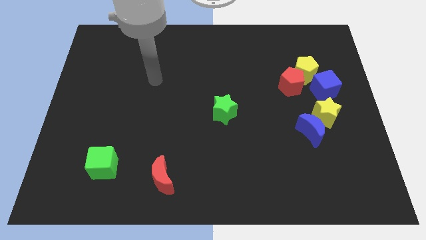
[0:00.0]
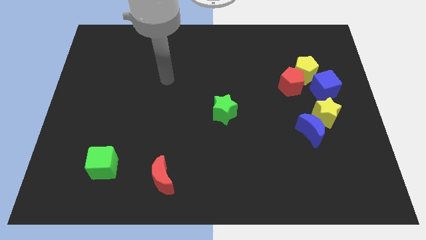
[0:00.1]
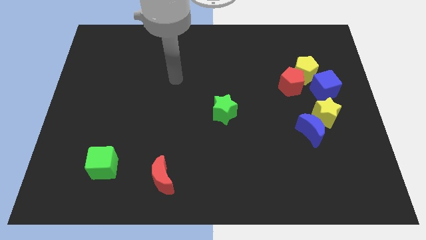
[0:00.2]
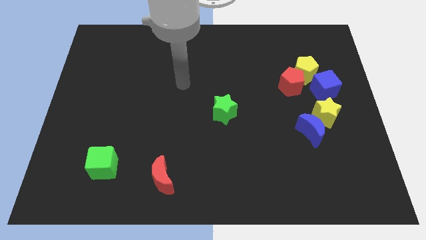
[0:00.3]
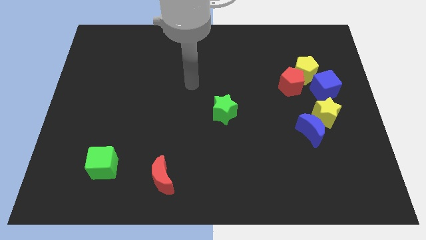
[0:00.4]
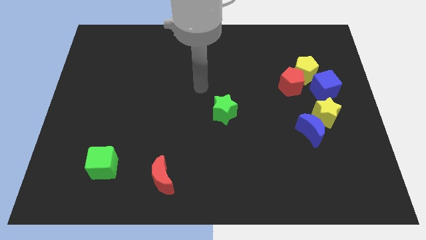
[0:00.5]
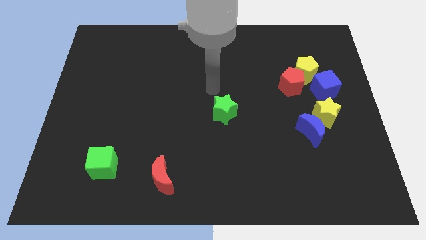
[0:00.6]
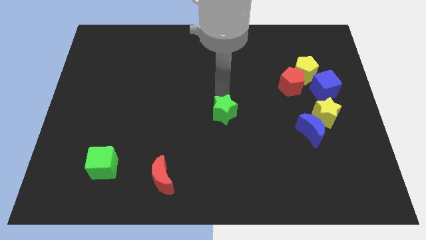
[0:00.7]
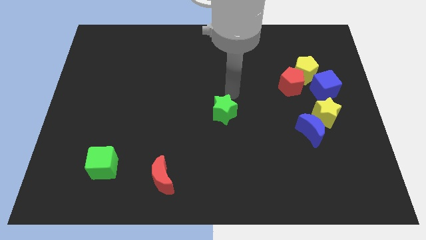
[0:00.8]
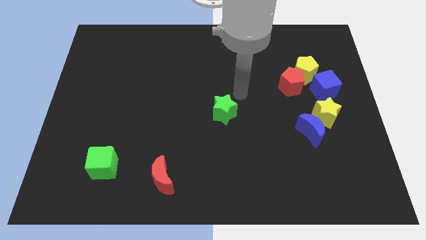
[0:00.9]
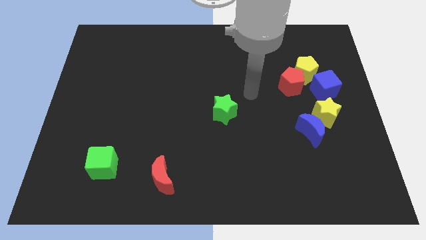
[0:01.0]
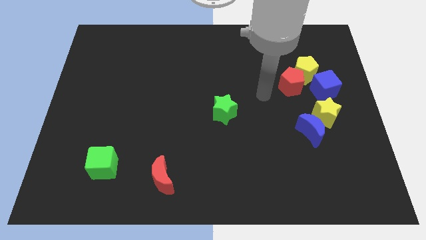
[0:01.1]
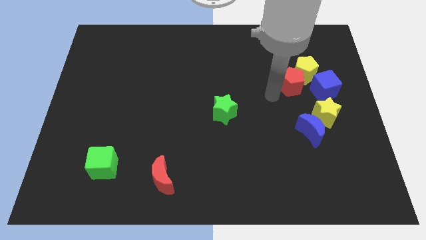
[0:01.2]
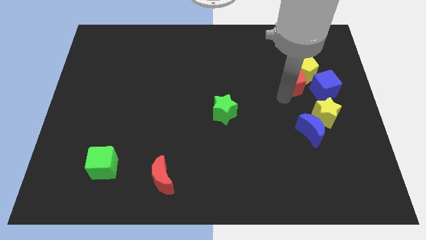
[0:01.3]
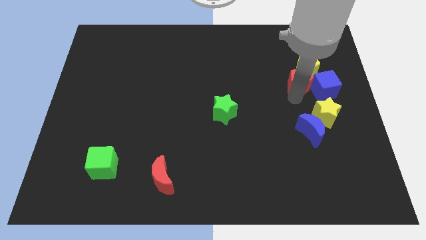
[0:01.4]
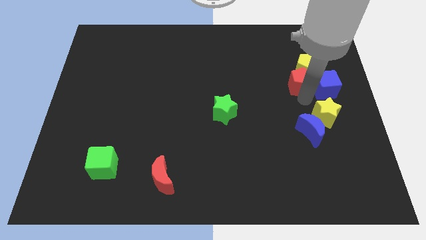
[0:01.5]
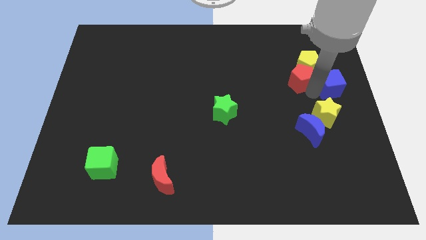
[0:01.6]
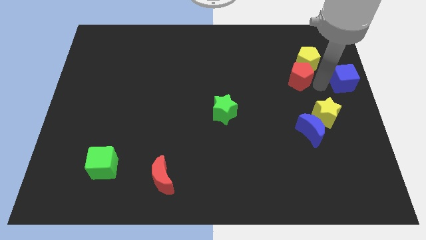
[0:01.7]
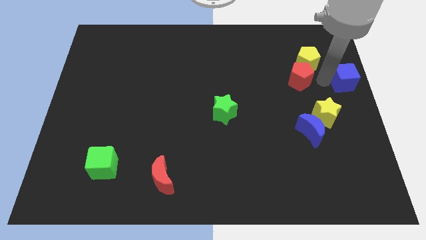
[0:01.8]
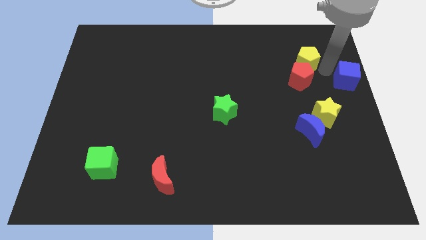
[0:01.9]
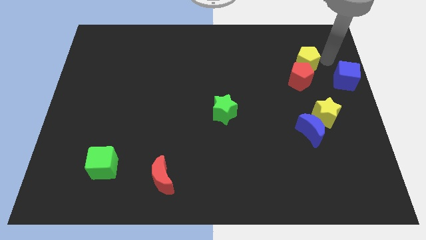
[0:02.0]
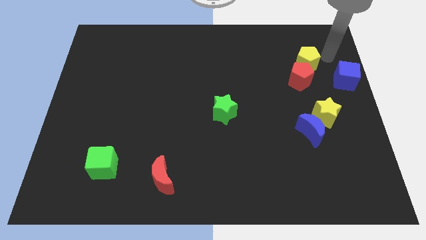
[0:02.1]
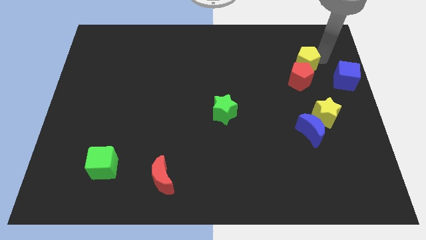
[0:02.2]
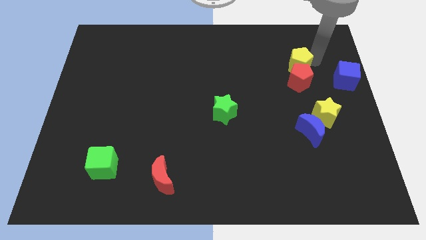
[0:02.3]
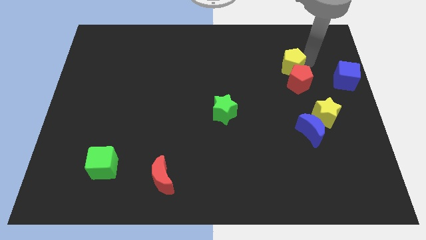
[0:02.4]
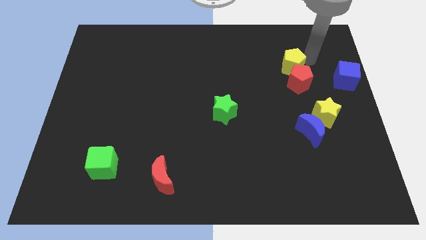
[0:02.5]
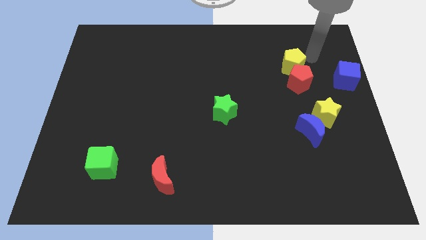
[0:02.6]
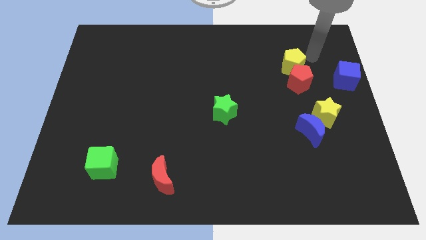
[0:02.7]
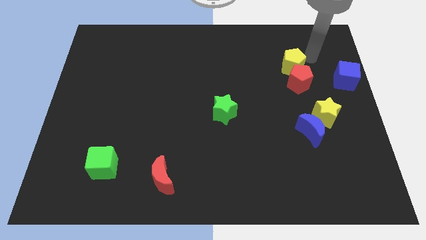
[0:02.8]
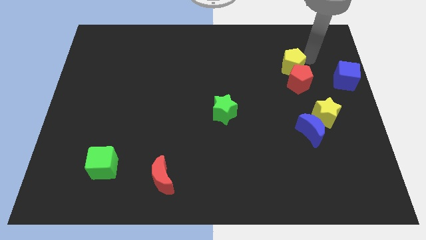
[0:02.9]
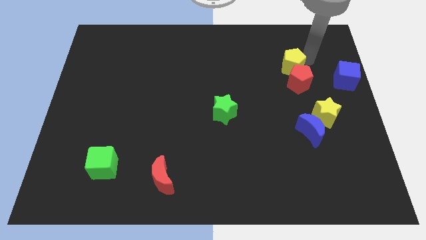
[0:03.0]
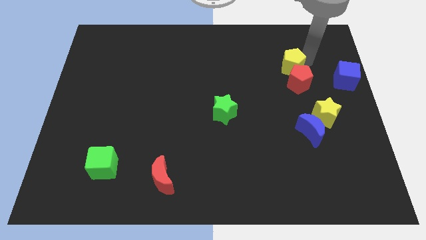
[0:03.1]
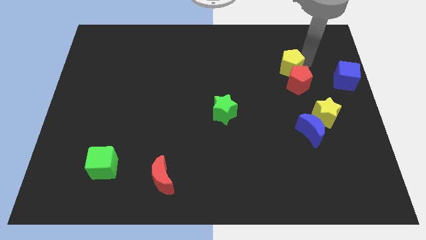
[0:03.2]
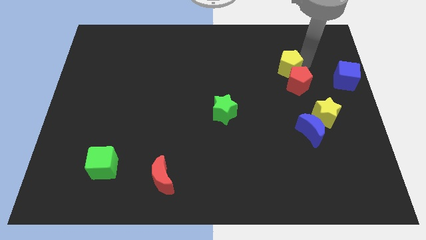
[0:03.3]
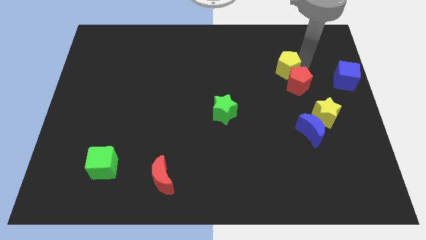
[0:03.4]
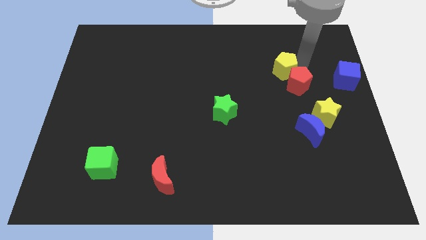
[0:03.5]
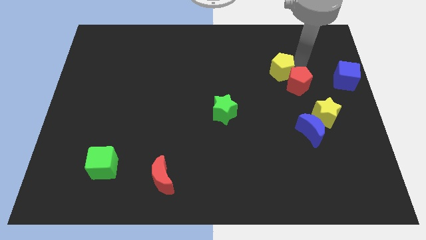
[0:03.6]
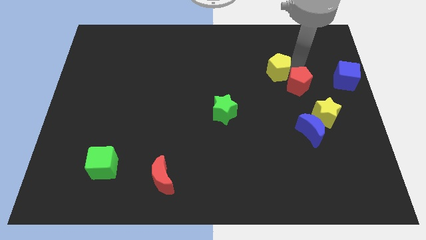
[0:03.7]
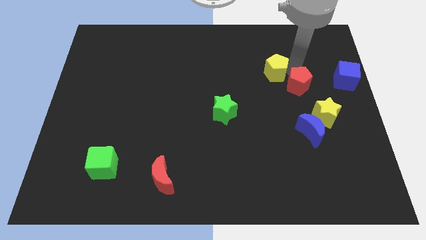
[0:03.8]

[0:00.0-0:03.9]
push the yellow pentagon left slightly

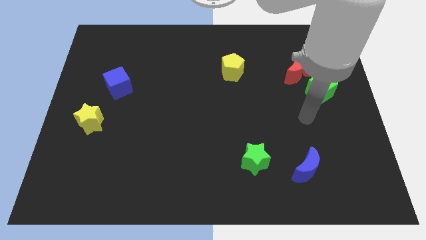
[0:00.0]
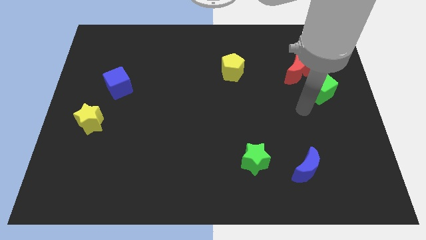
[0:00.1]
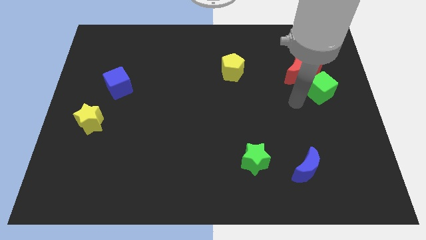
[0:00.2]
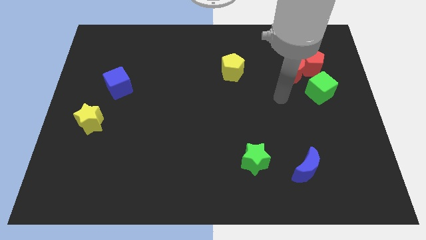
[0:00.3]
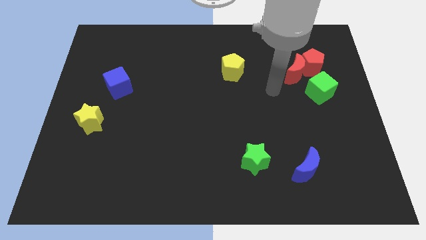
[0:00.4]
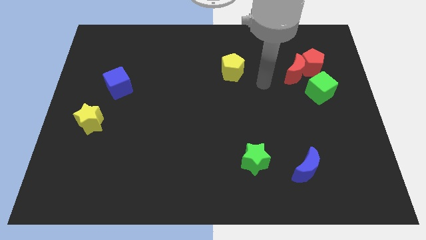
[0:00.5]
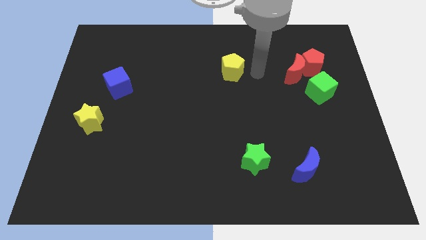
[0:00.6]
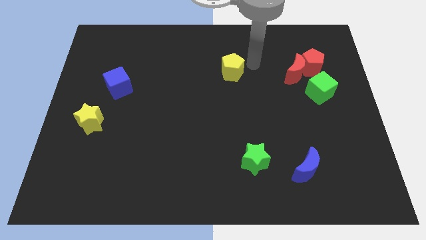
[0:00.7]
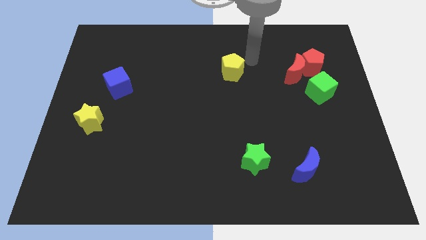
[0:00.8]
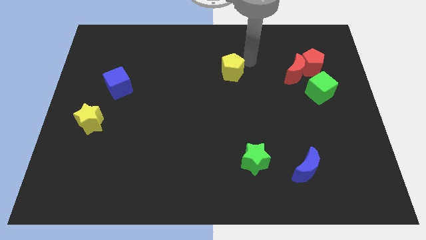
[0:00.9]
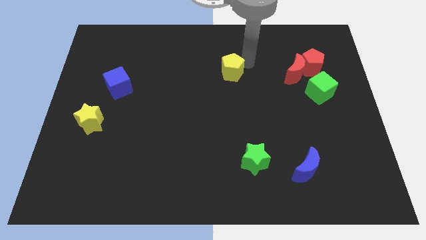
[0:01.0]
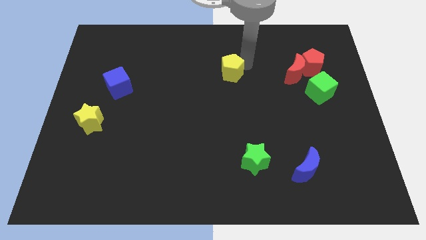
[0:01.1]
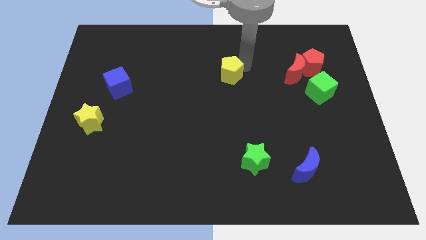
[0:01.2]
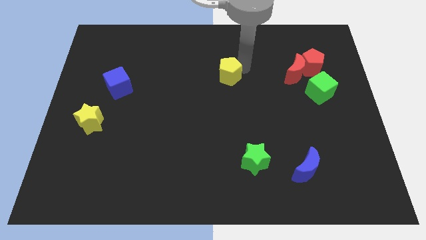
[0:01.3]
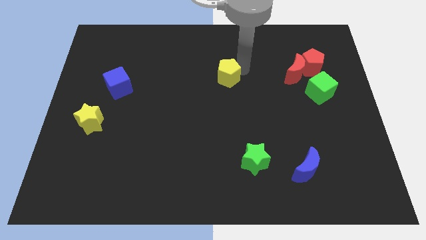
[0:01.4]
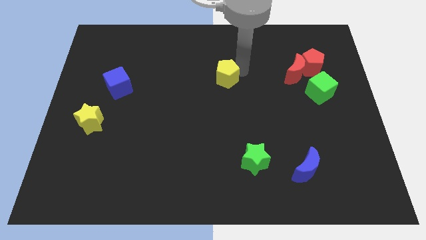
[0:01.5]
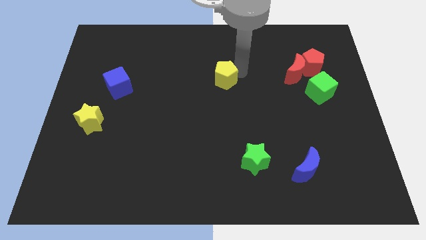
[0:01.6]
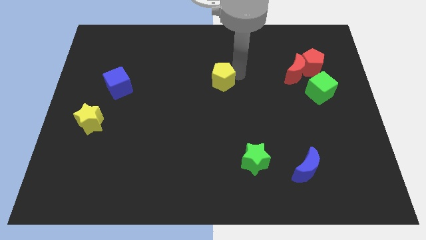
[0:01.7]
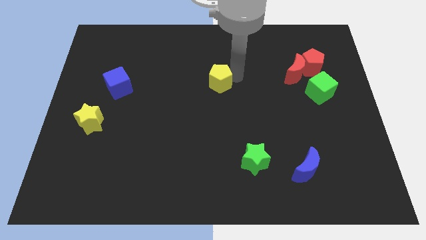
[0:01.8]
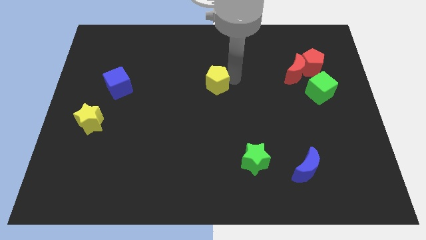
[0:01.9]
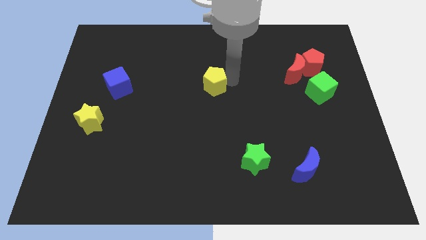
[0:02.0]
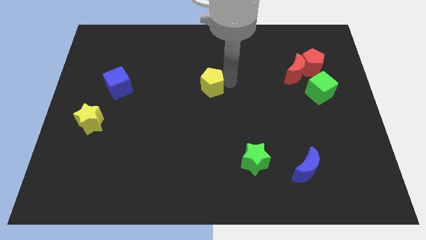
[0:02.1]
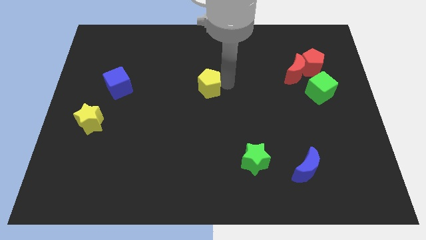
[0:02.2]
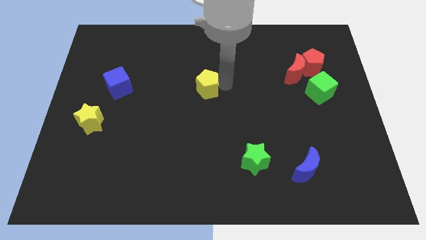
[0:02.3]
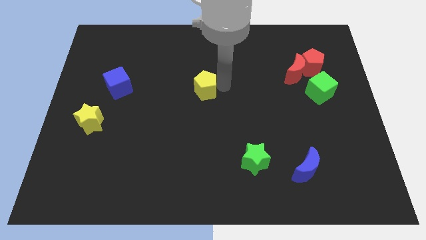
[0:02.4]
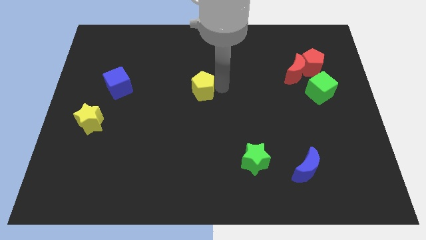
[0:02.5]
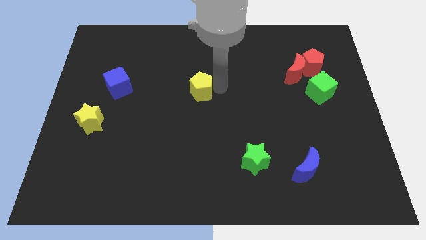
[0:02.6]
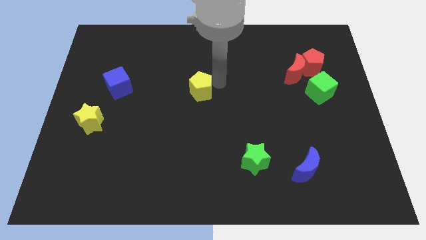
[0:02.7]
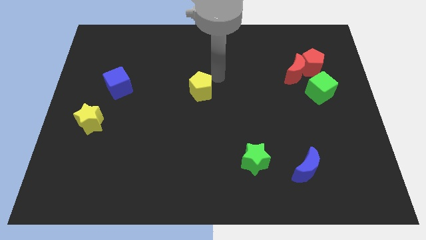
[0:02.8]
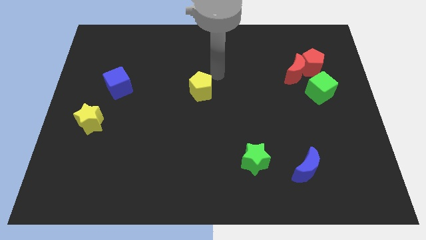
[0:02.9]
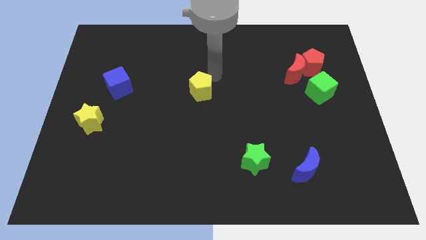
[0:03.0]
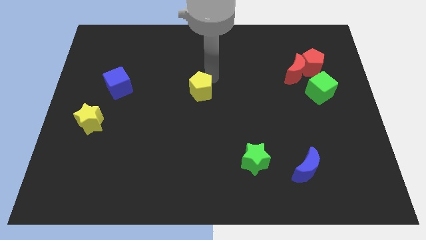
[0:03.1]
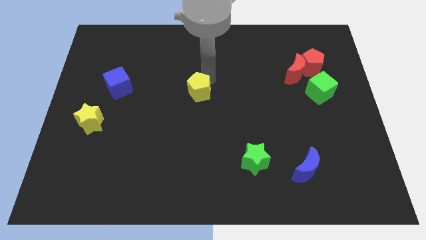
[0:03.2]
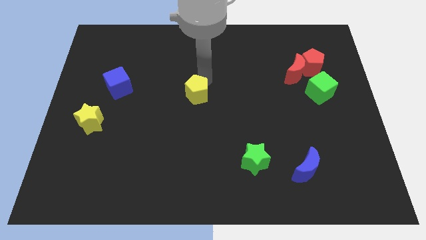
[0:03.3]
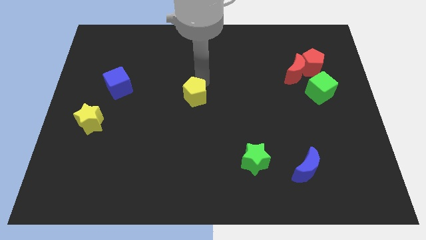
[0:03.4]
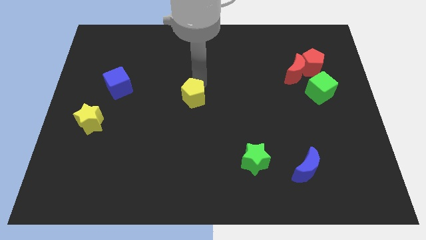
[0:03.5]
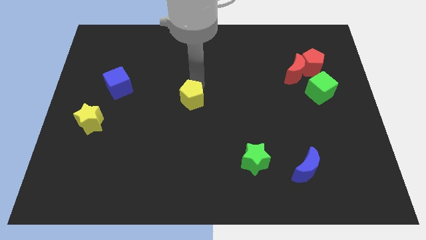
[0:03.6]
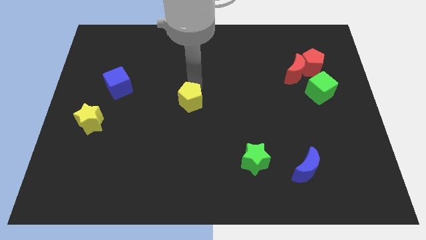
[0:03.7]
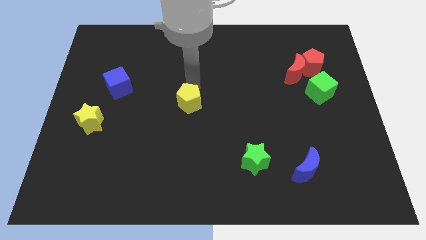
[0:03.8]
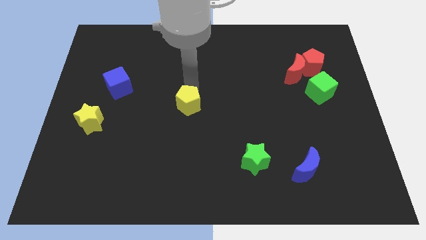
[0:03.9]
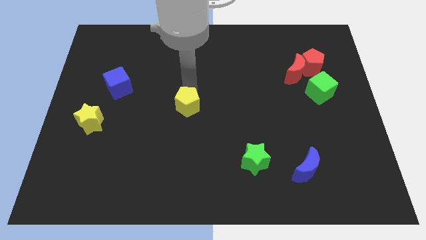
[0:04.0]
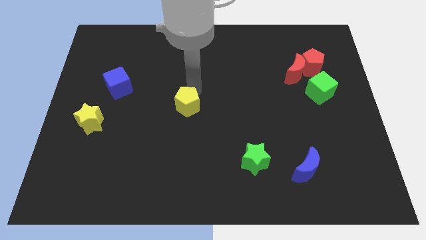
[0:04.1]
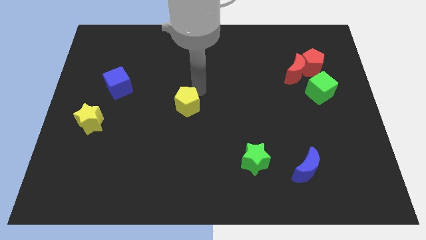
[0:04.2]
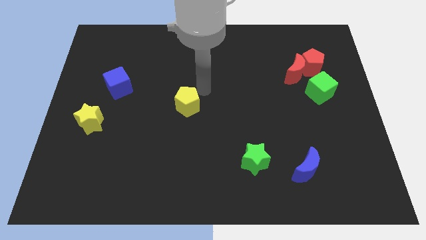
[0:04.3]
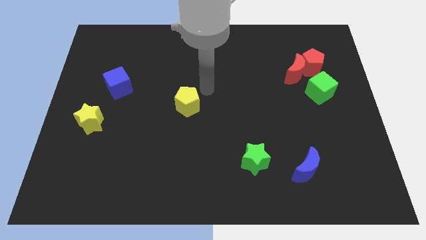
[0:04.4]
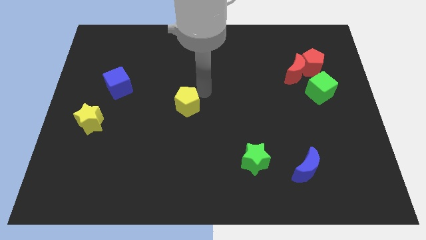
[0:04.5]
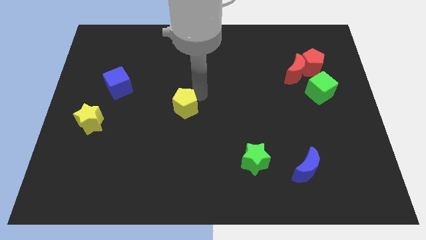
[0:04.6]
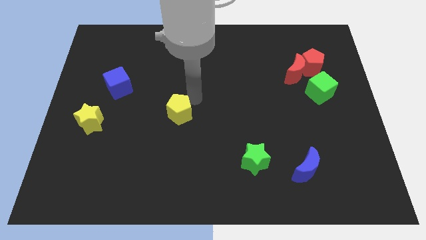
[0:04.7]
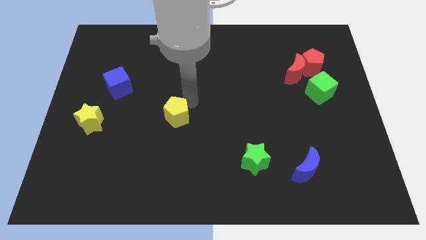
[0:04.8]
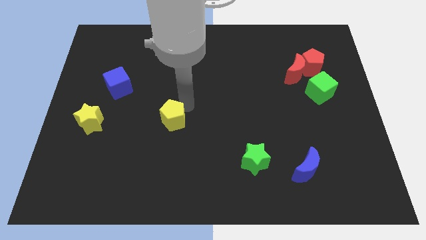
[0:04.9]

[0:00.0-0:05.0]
slide the yellow pentagon downwards and to the left
